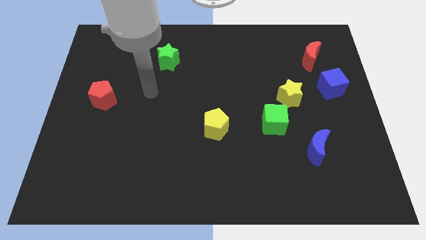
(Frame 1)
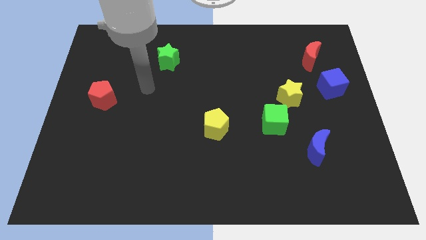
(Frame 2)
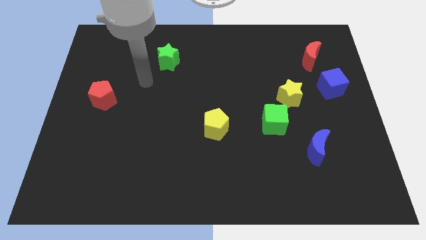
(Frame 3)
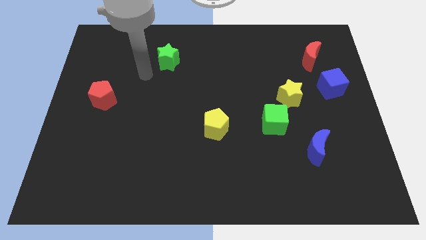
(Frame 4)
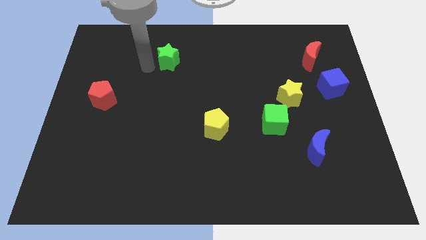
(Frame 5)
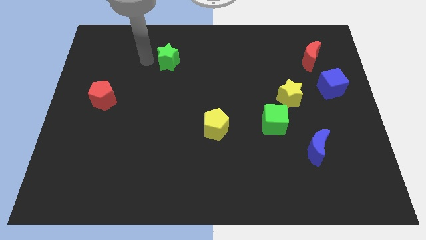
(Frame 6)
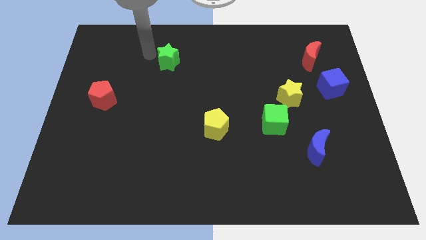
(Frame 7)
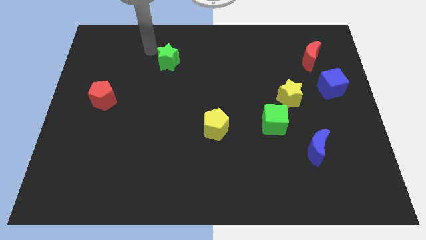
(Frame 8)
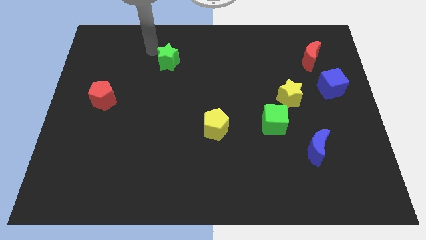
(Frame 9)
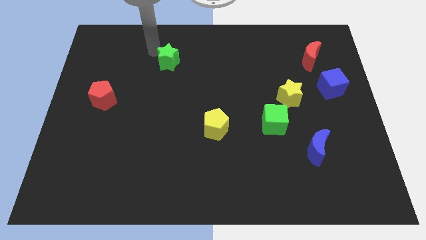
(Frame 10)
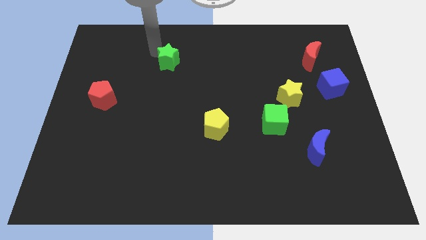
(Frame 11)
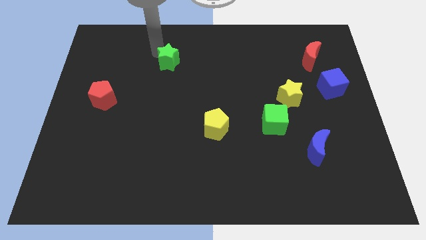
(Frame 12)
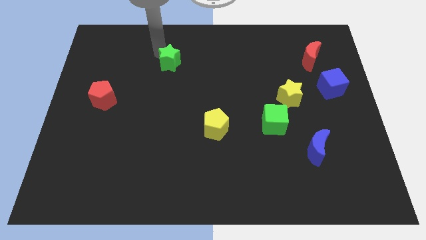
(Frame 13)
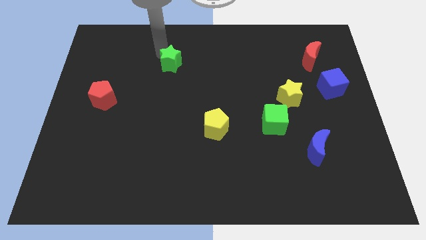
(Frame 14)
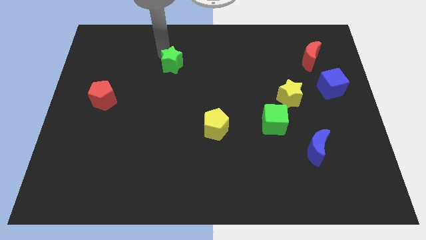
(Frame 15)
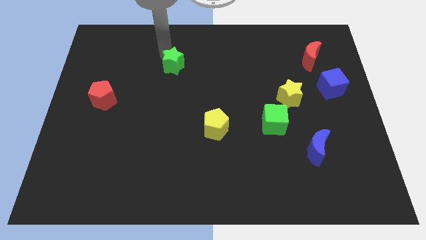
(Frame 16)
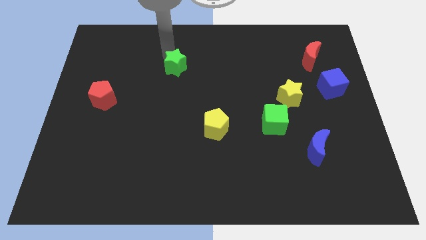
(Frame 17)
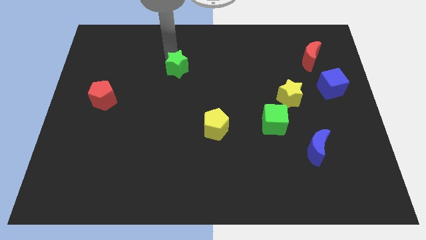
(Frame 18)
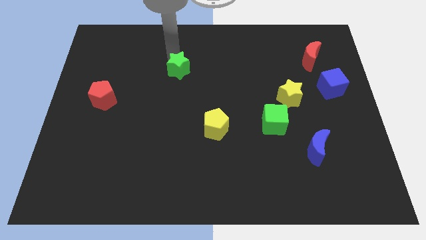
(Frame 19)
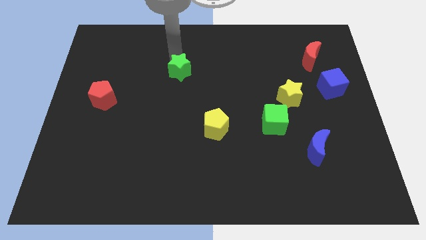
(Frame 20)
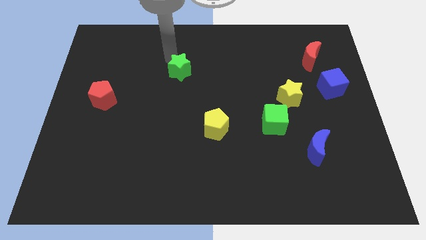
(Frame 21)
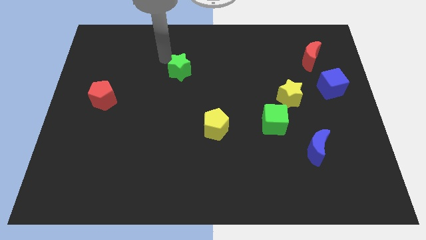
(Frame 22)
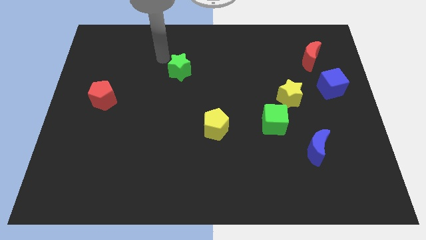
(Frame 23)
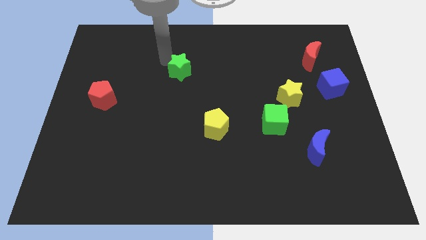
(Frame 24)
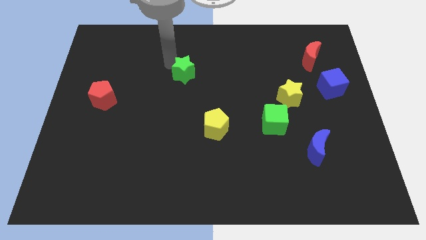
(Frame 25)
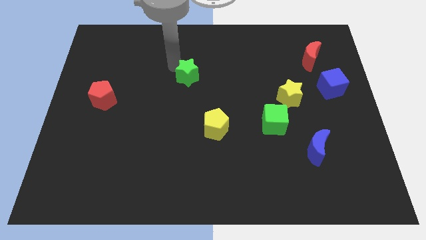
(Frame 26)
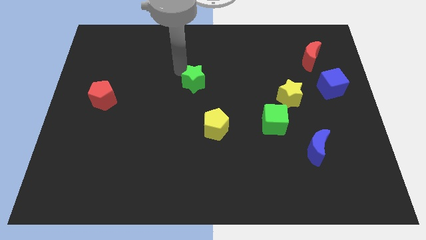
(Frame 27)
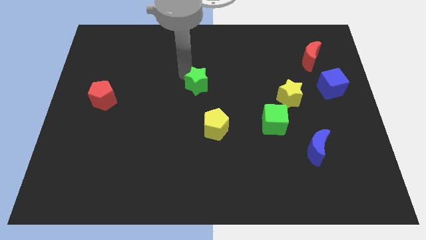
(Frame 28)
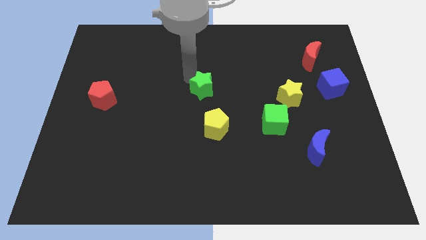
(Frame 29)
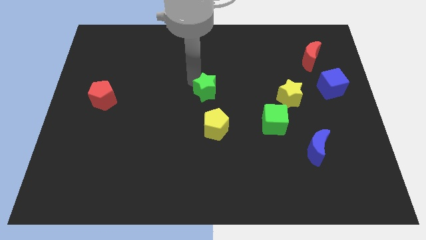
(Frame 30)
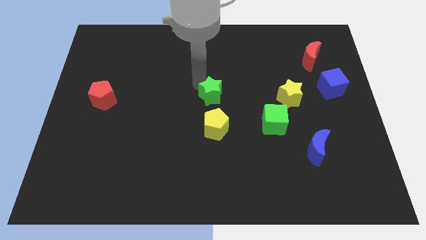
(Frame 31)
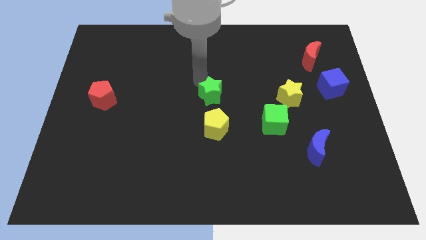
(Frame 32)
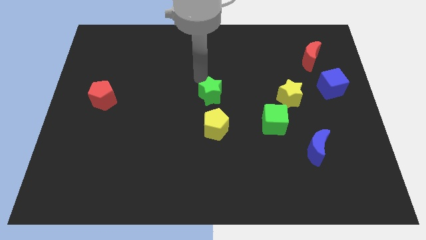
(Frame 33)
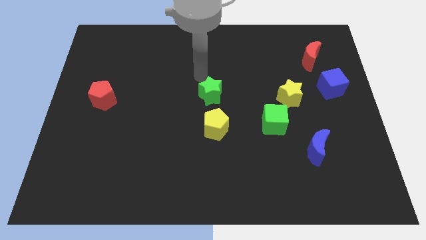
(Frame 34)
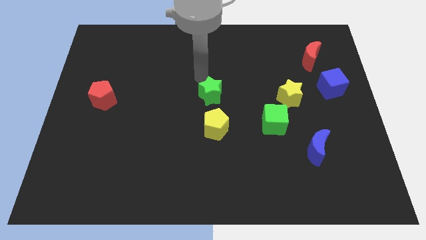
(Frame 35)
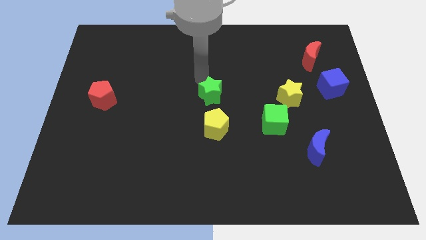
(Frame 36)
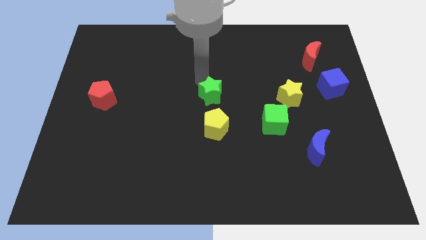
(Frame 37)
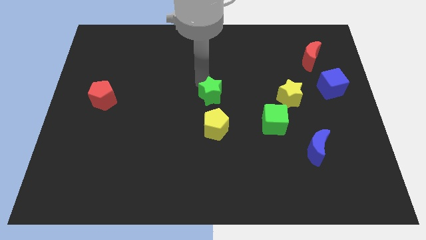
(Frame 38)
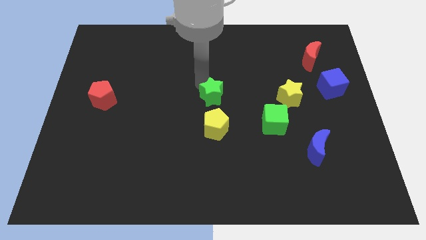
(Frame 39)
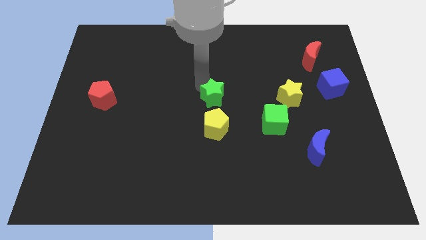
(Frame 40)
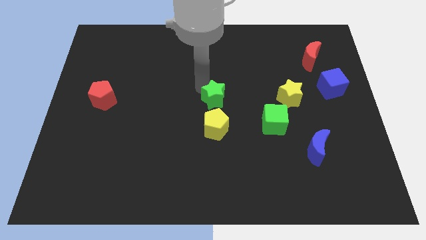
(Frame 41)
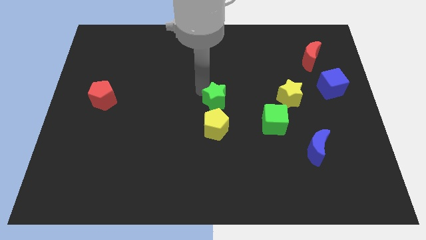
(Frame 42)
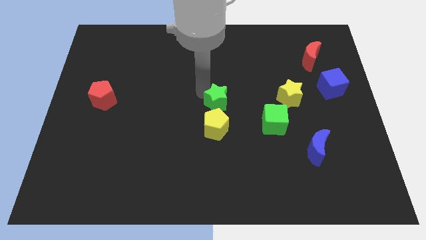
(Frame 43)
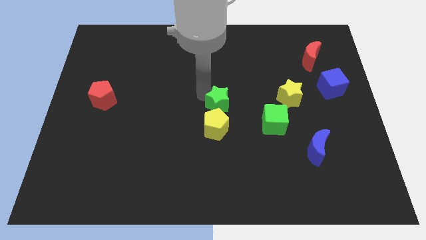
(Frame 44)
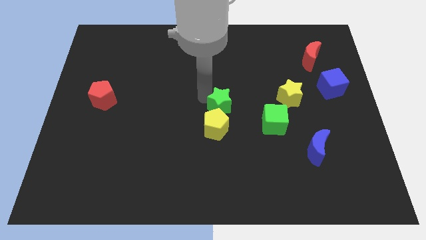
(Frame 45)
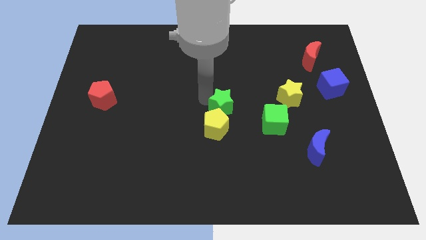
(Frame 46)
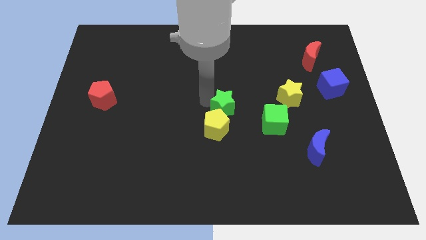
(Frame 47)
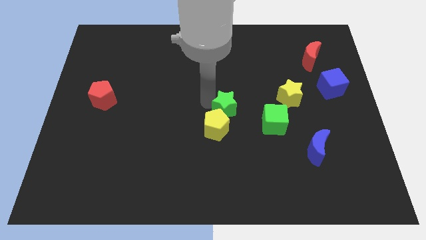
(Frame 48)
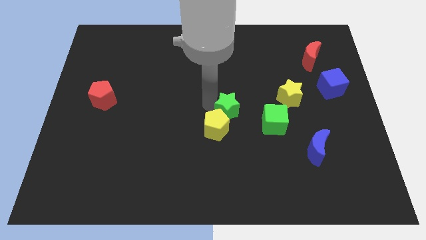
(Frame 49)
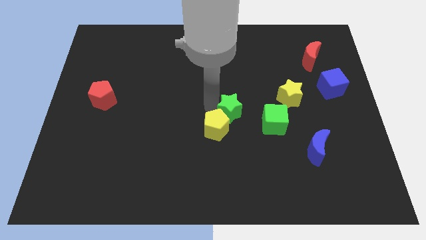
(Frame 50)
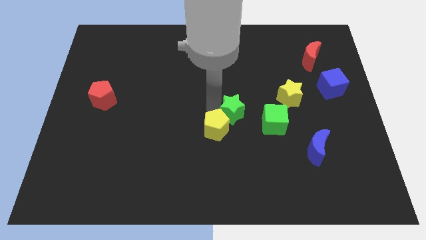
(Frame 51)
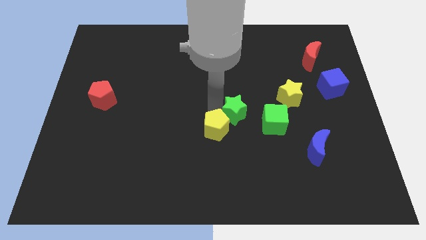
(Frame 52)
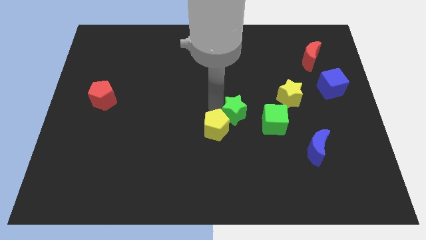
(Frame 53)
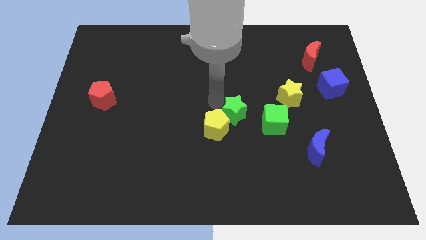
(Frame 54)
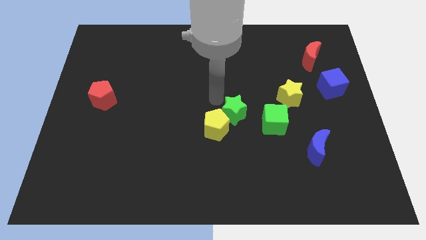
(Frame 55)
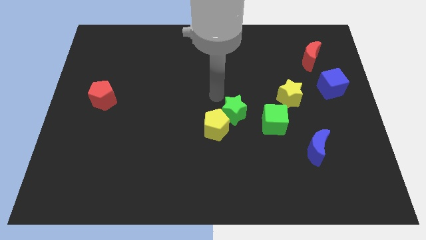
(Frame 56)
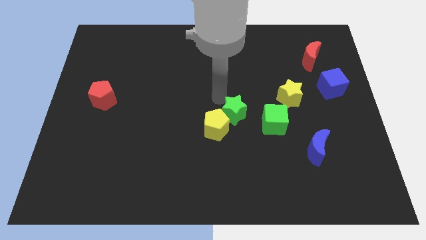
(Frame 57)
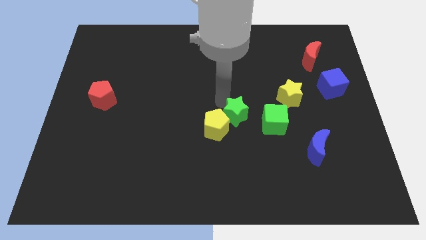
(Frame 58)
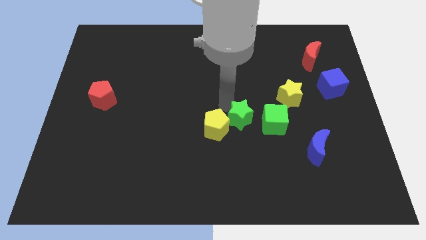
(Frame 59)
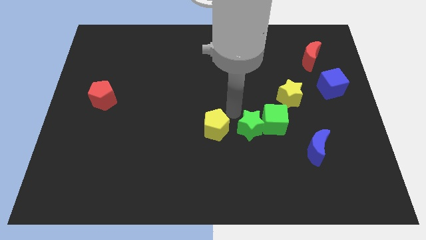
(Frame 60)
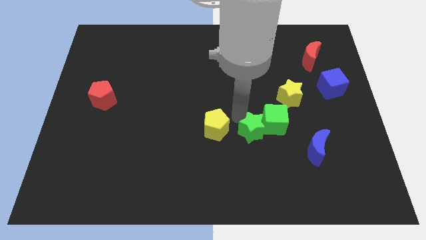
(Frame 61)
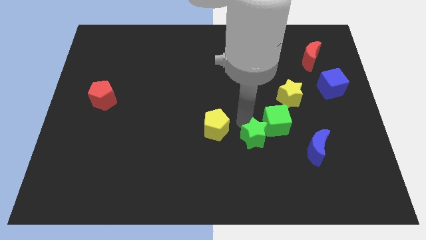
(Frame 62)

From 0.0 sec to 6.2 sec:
slide the green star to the left side of the blue moon

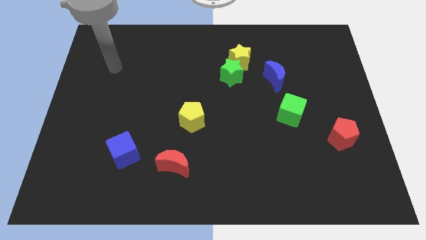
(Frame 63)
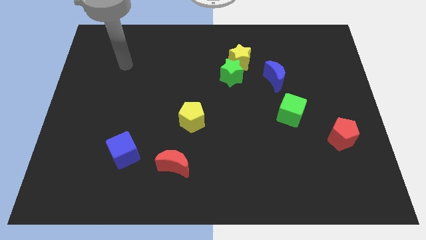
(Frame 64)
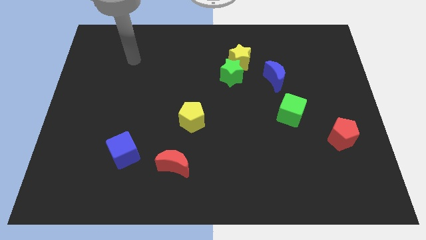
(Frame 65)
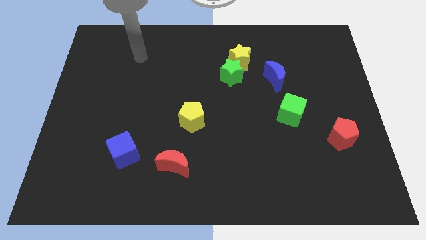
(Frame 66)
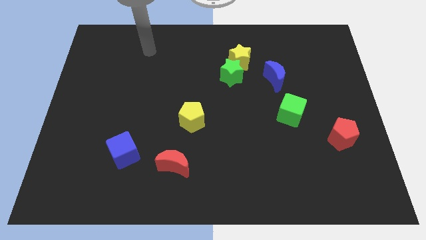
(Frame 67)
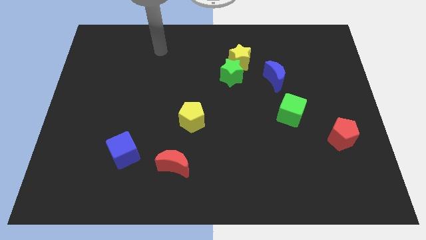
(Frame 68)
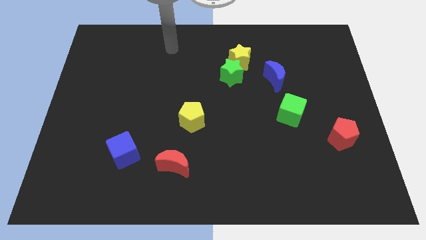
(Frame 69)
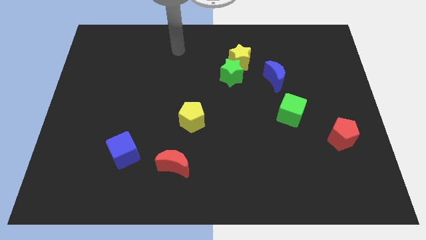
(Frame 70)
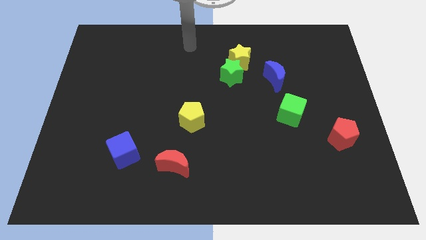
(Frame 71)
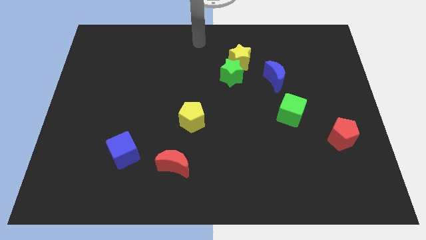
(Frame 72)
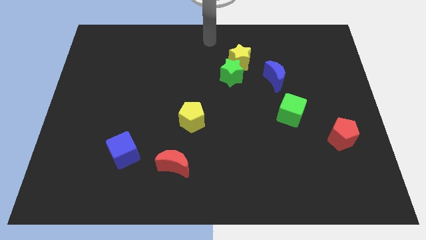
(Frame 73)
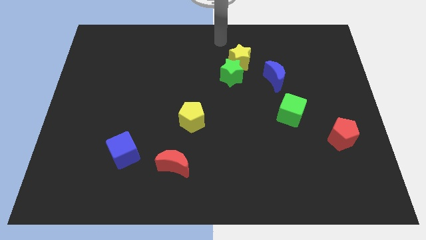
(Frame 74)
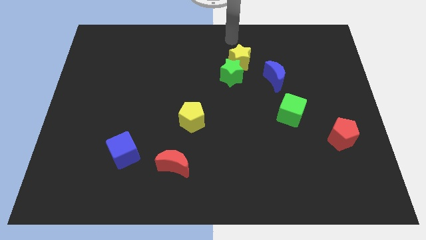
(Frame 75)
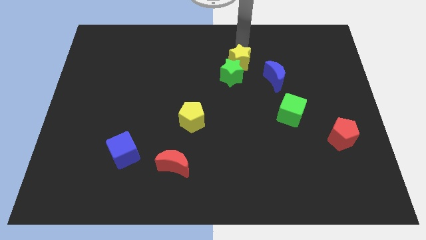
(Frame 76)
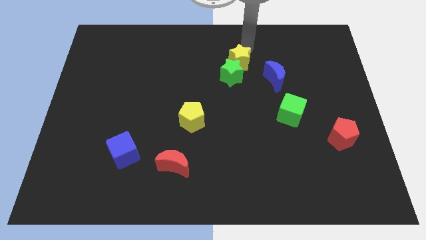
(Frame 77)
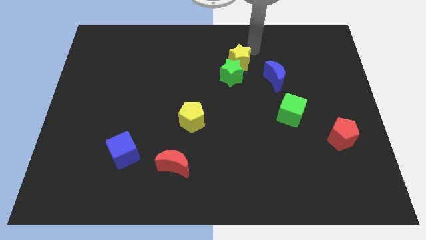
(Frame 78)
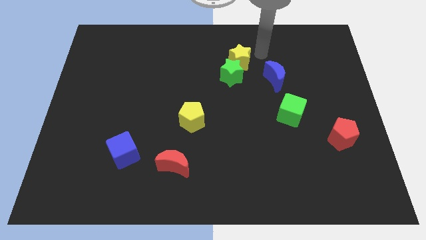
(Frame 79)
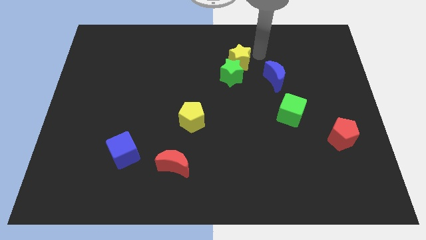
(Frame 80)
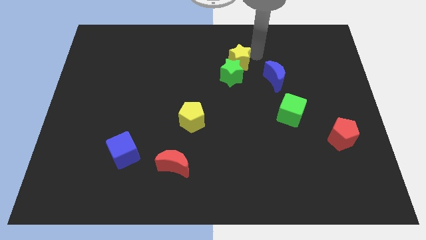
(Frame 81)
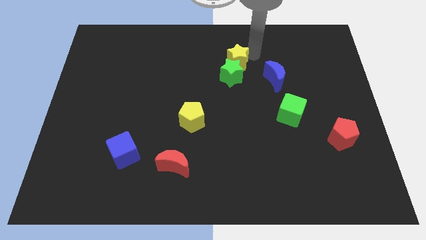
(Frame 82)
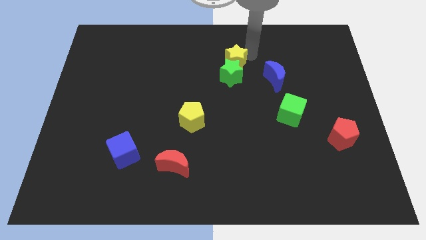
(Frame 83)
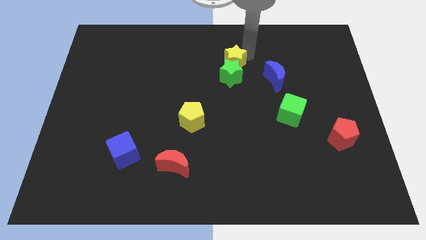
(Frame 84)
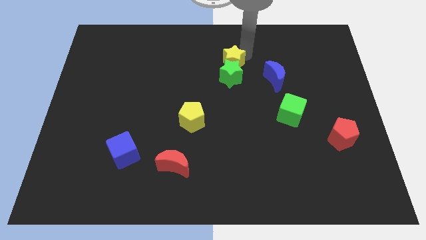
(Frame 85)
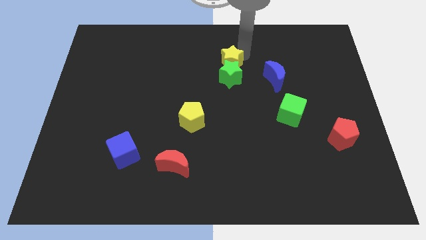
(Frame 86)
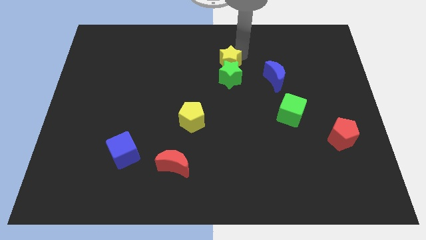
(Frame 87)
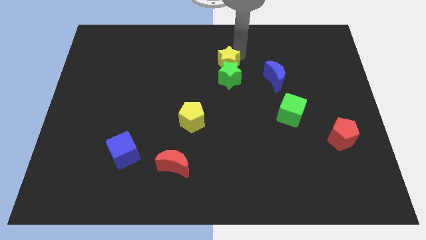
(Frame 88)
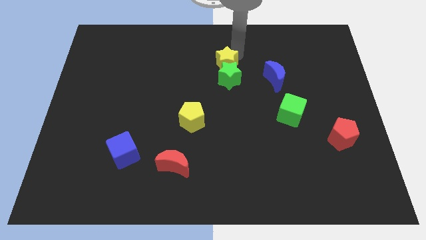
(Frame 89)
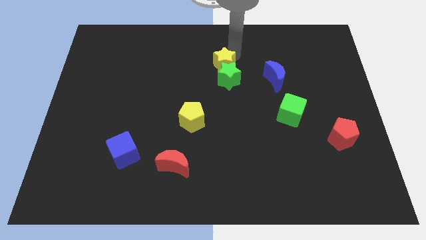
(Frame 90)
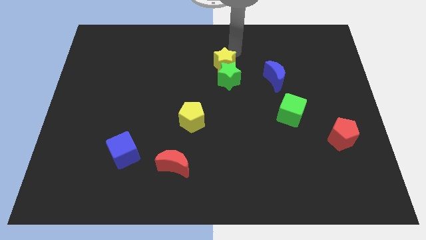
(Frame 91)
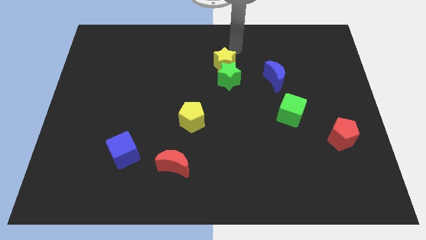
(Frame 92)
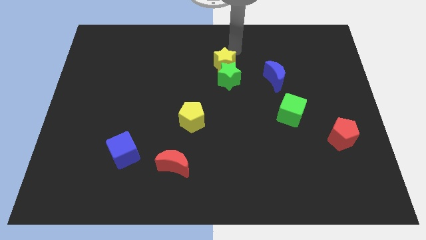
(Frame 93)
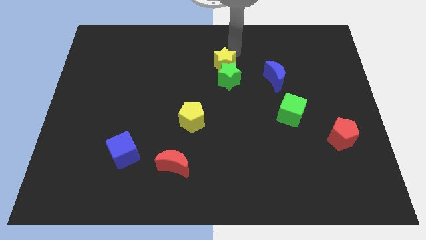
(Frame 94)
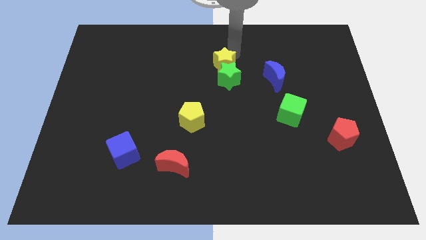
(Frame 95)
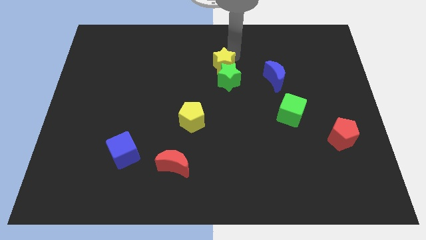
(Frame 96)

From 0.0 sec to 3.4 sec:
move the yellow star to the left of the blue moon
